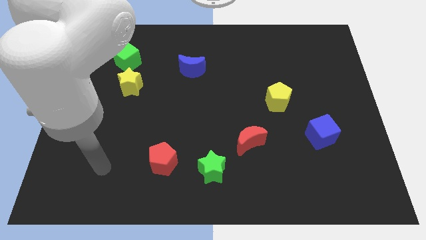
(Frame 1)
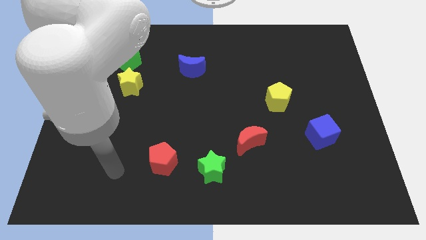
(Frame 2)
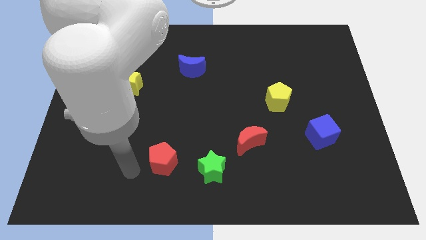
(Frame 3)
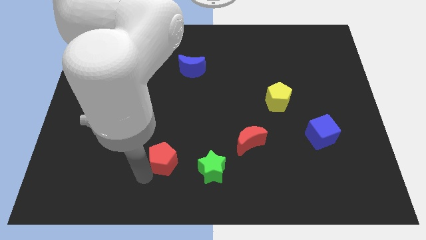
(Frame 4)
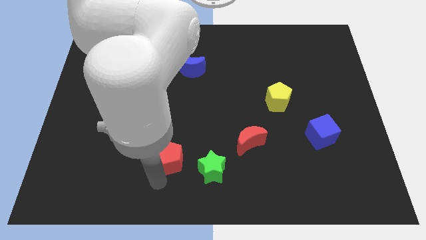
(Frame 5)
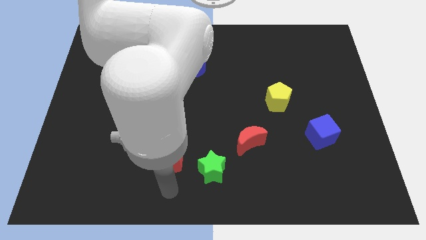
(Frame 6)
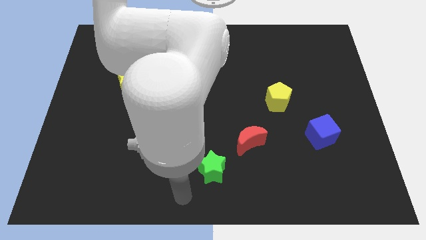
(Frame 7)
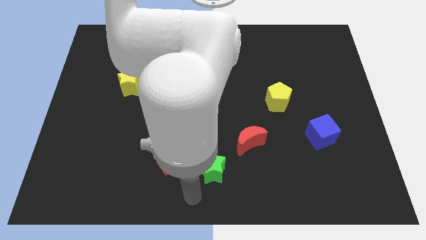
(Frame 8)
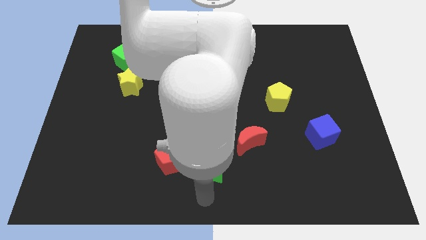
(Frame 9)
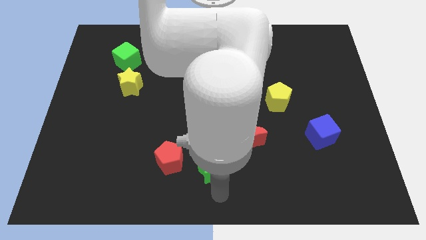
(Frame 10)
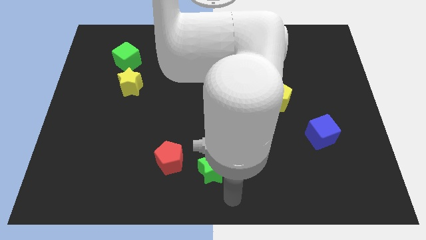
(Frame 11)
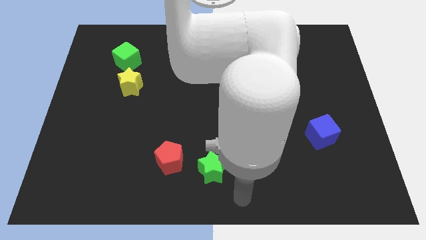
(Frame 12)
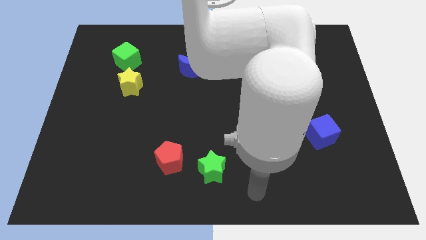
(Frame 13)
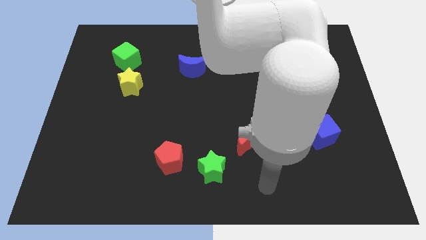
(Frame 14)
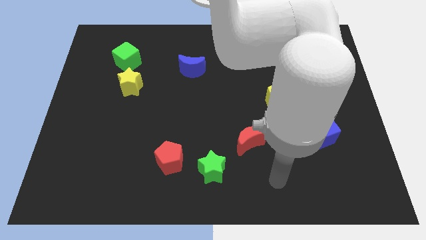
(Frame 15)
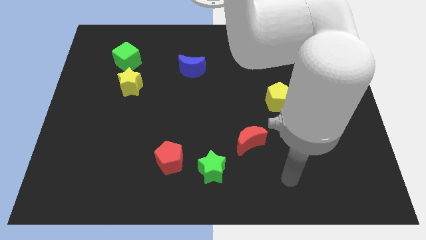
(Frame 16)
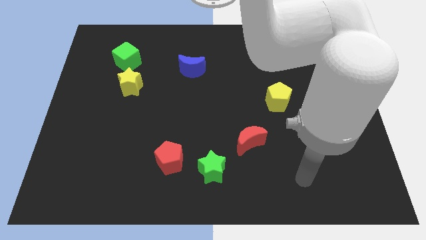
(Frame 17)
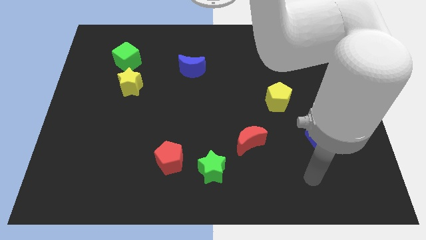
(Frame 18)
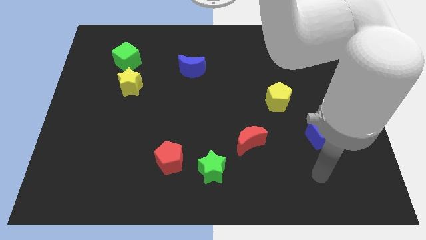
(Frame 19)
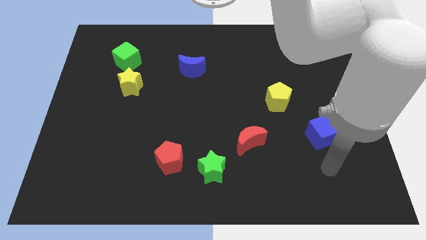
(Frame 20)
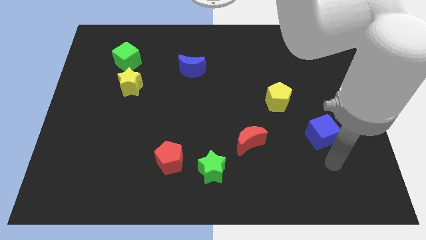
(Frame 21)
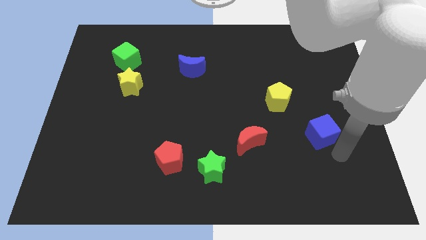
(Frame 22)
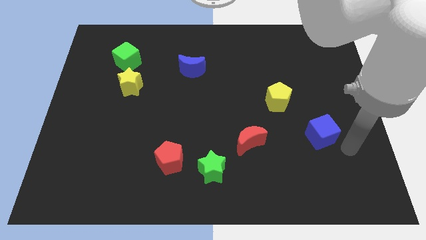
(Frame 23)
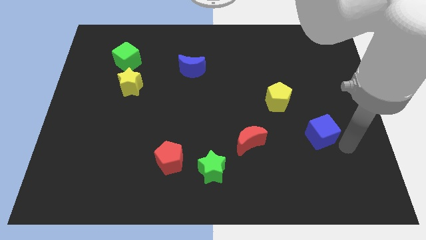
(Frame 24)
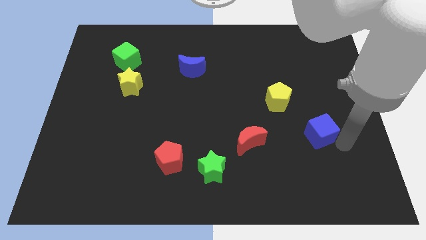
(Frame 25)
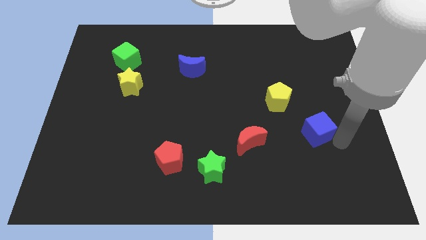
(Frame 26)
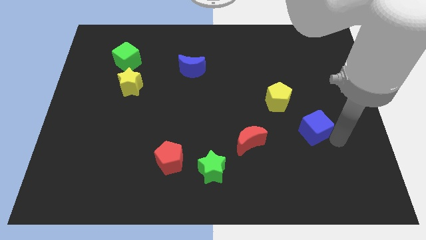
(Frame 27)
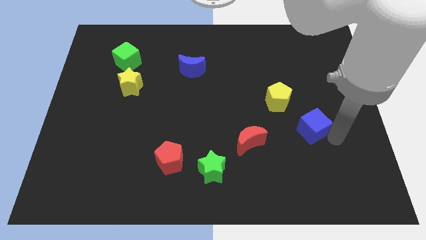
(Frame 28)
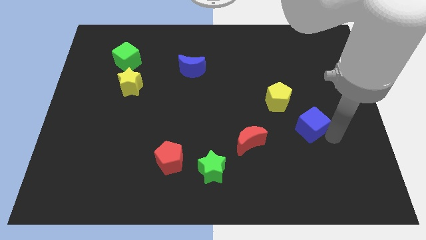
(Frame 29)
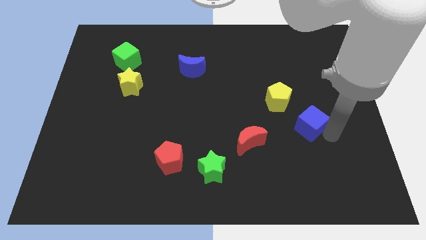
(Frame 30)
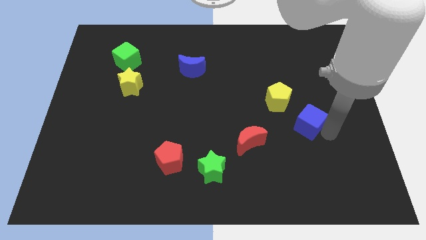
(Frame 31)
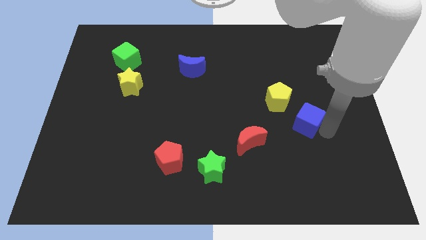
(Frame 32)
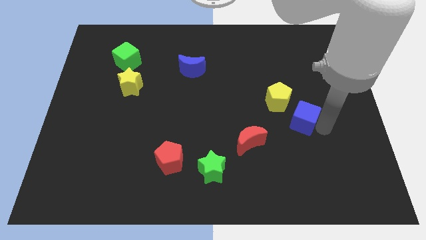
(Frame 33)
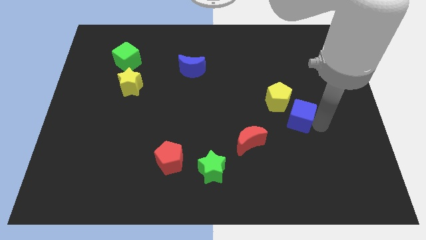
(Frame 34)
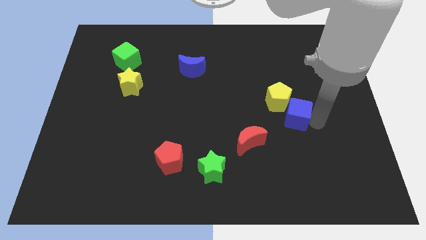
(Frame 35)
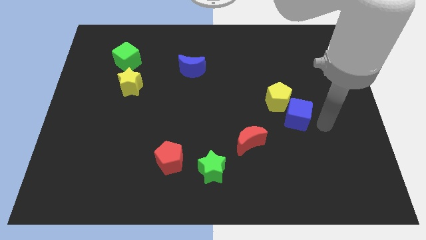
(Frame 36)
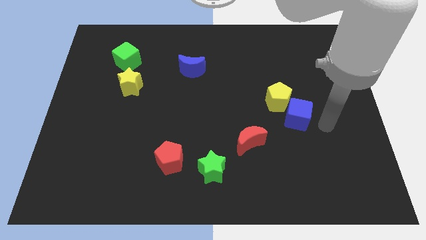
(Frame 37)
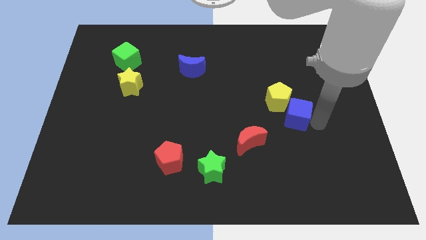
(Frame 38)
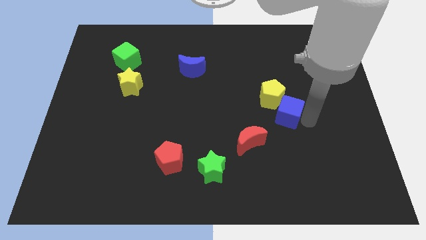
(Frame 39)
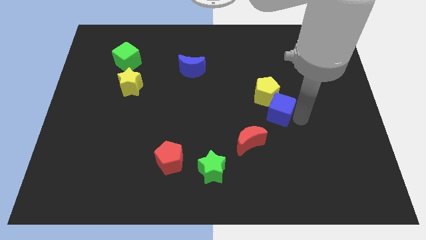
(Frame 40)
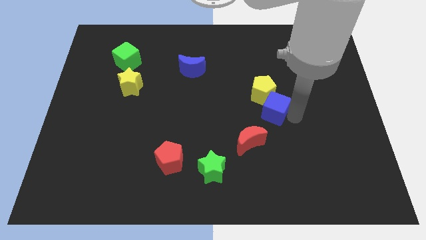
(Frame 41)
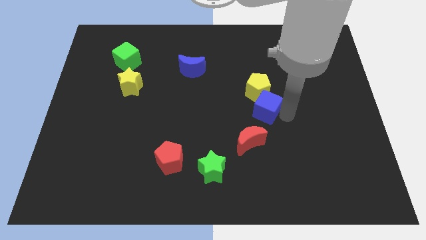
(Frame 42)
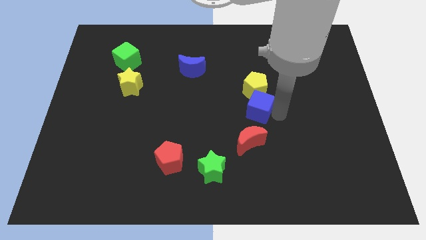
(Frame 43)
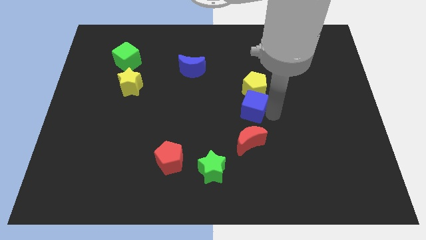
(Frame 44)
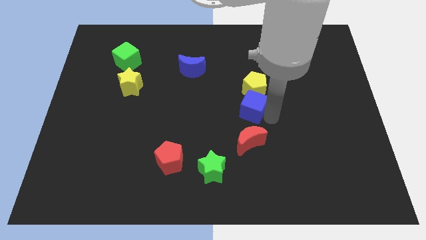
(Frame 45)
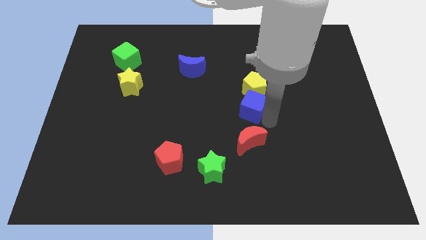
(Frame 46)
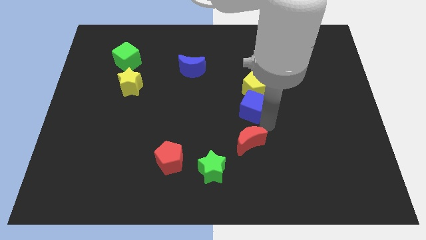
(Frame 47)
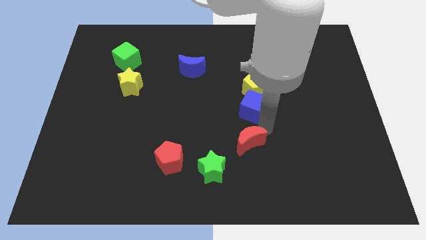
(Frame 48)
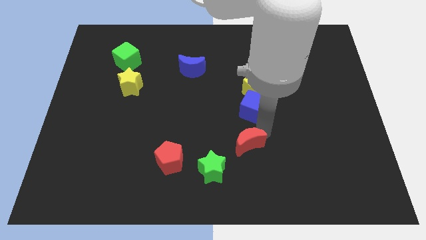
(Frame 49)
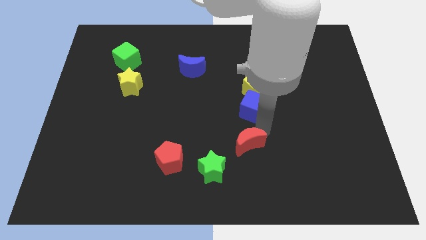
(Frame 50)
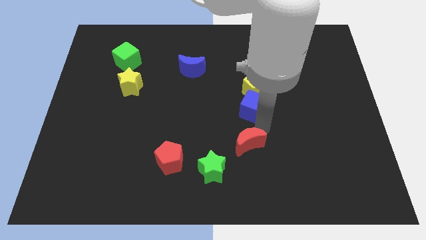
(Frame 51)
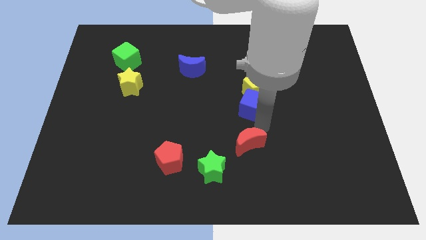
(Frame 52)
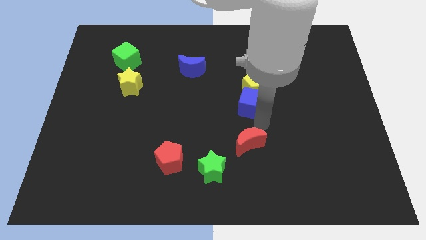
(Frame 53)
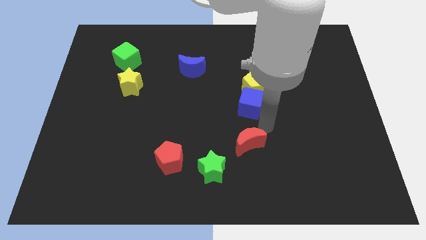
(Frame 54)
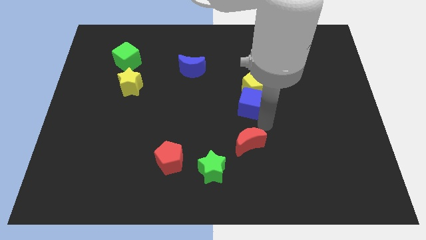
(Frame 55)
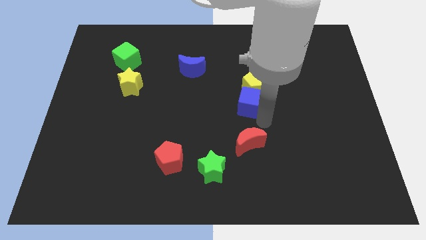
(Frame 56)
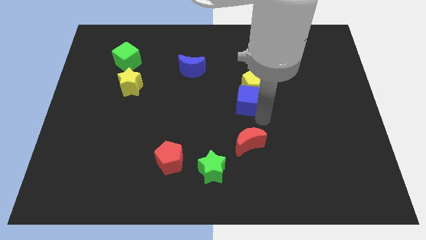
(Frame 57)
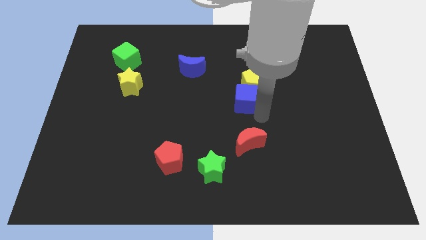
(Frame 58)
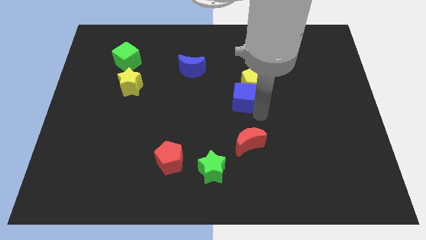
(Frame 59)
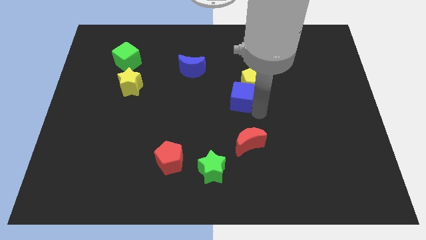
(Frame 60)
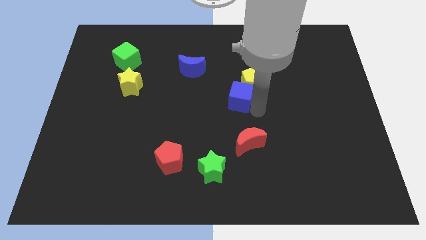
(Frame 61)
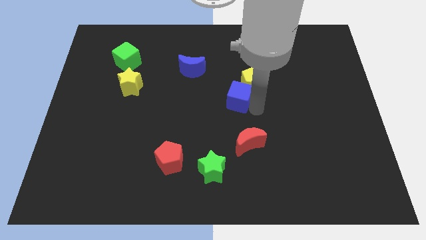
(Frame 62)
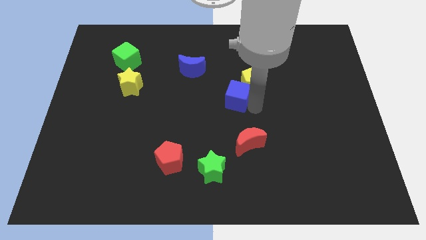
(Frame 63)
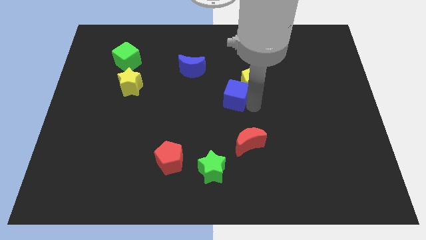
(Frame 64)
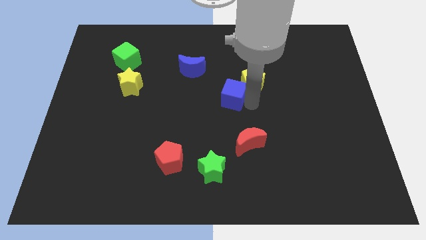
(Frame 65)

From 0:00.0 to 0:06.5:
push the blue cube upwards and then left

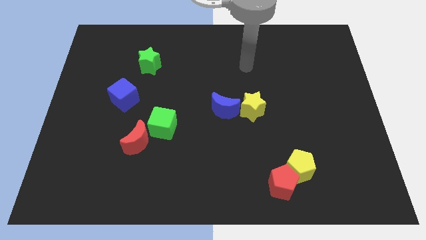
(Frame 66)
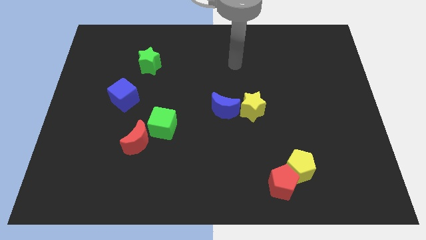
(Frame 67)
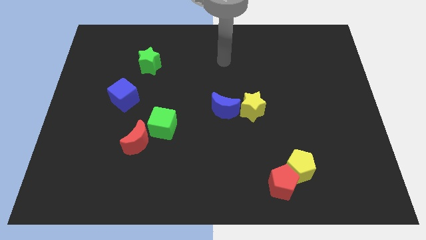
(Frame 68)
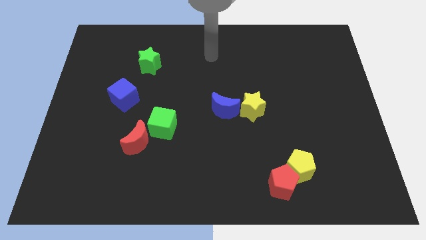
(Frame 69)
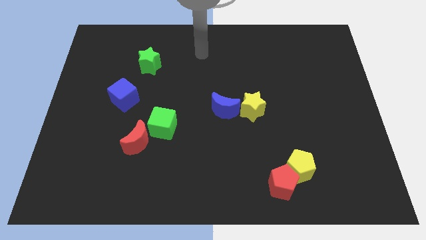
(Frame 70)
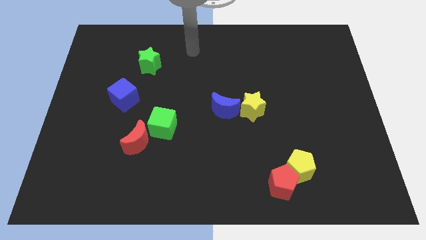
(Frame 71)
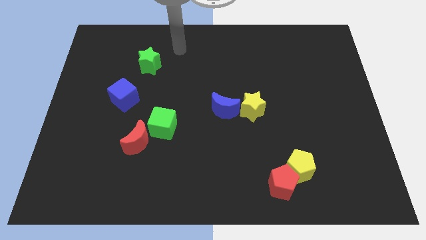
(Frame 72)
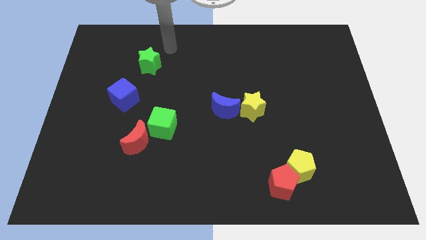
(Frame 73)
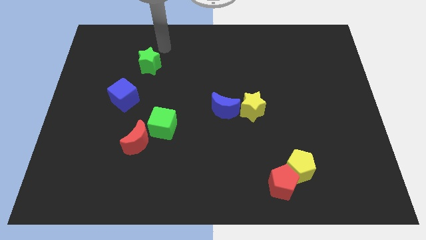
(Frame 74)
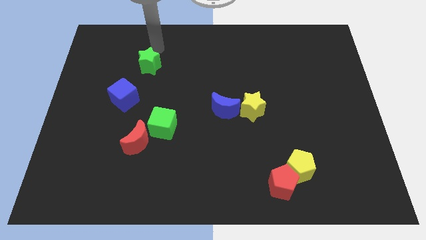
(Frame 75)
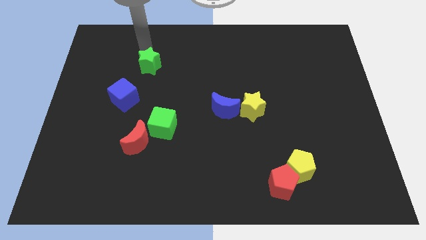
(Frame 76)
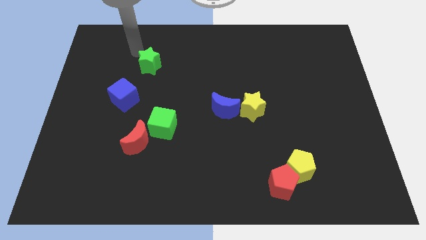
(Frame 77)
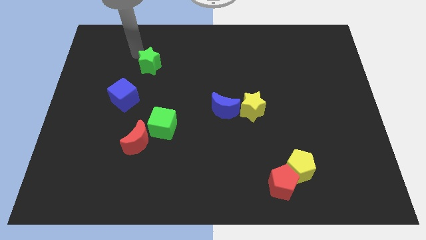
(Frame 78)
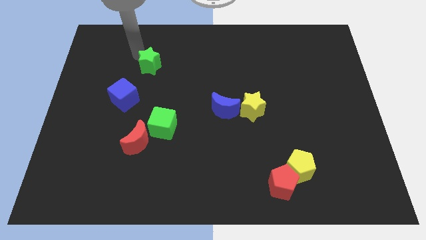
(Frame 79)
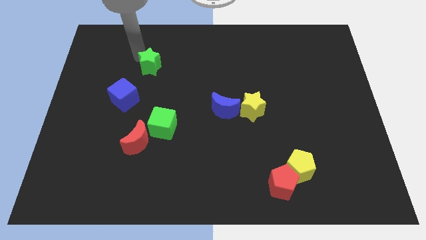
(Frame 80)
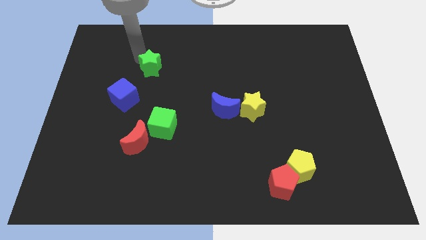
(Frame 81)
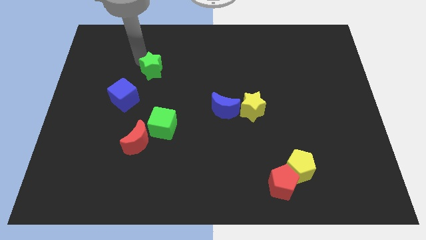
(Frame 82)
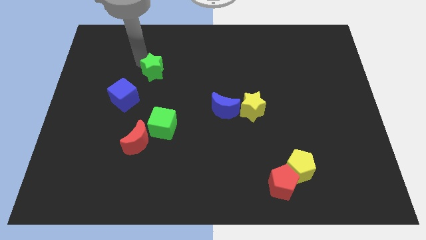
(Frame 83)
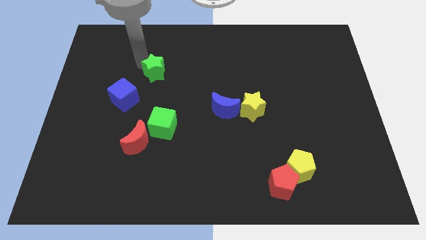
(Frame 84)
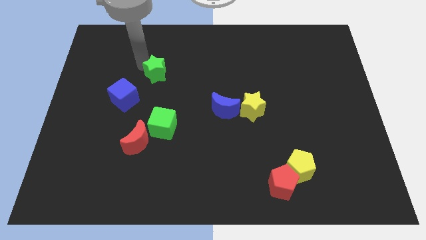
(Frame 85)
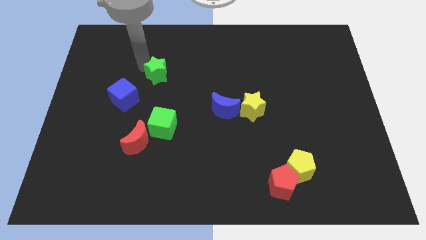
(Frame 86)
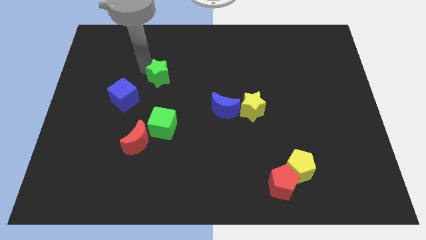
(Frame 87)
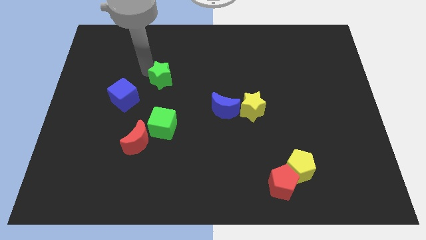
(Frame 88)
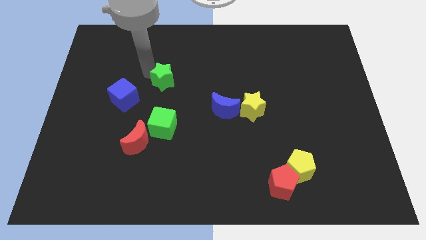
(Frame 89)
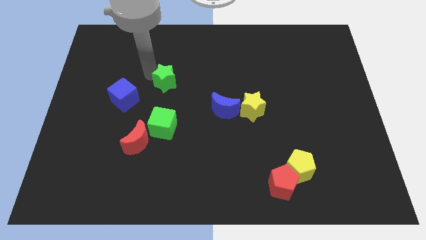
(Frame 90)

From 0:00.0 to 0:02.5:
push the green star diagonally downwards and to the right a bit
